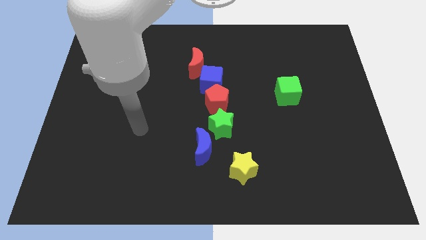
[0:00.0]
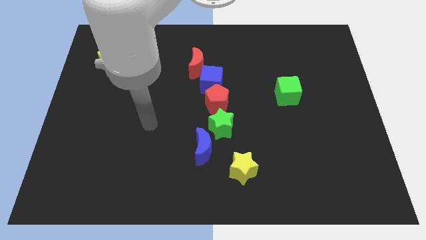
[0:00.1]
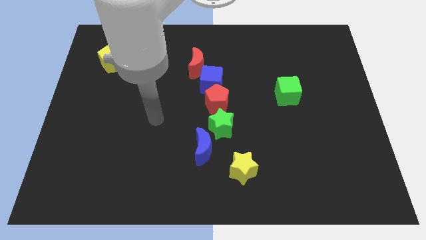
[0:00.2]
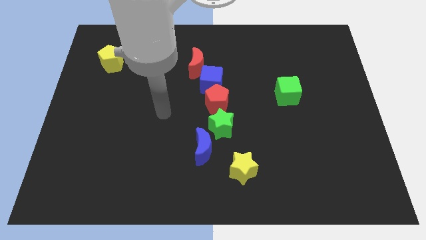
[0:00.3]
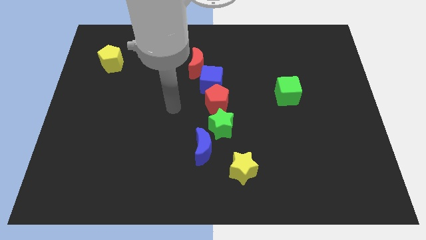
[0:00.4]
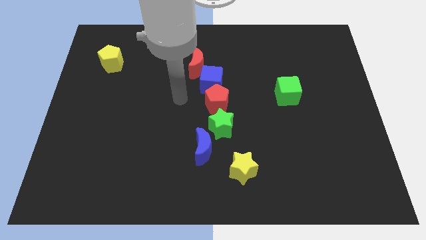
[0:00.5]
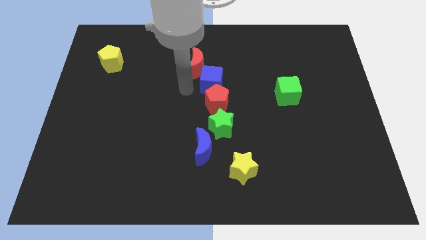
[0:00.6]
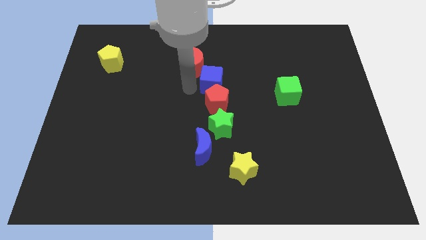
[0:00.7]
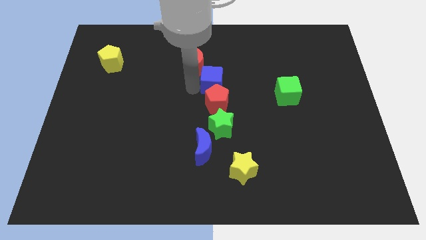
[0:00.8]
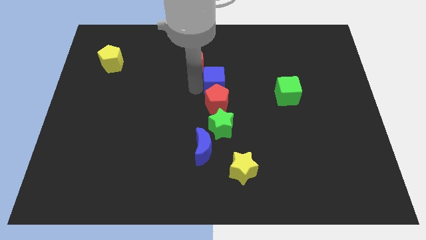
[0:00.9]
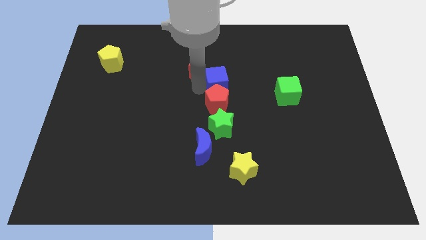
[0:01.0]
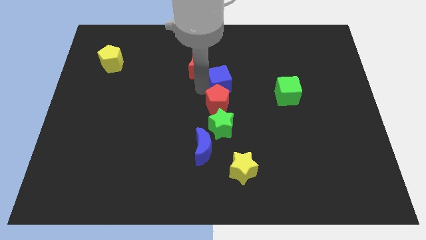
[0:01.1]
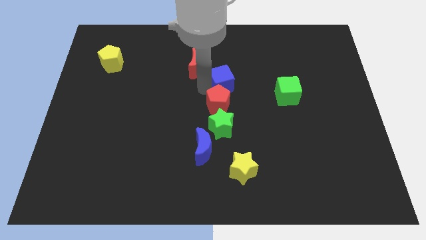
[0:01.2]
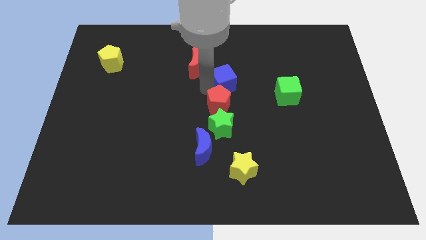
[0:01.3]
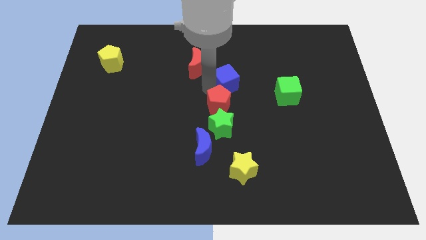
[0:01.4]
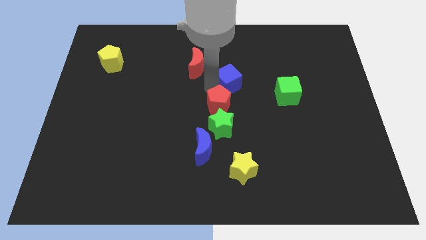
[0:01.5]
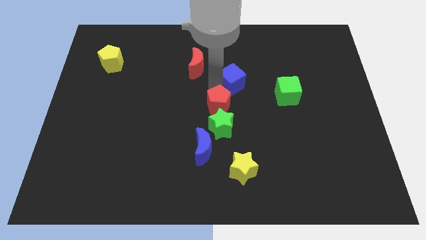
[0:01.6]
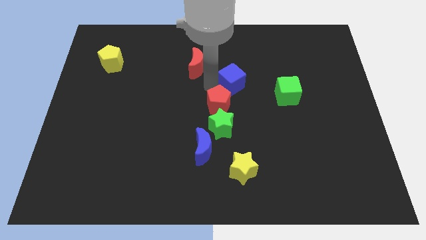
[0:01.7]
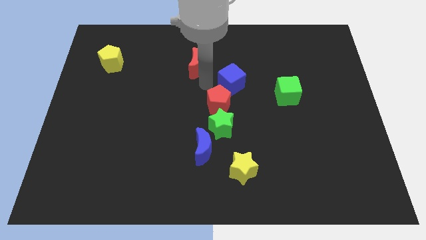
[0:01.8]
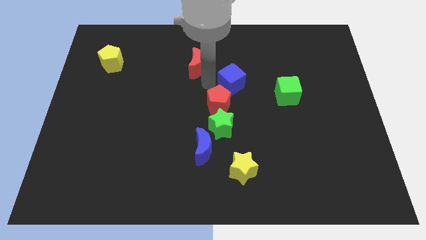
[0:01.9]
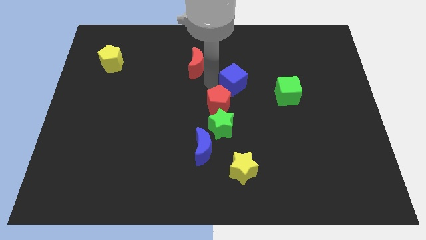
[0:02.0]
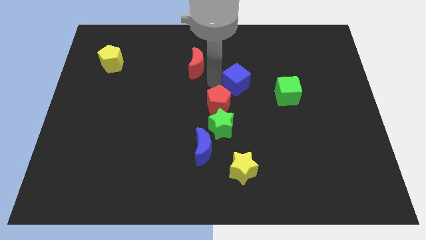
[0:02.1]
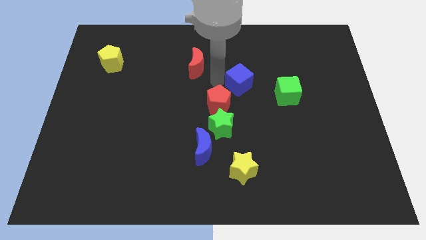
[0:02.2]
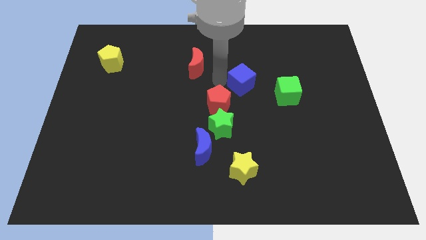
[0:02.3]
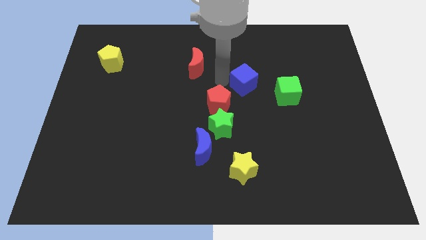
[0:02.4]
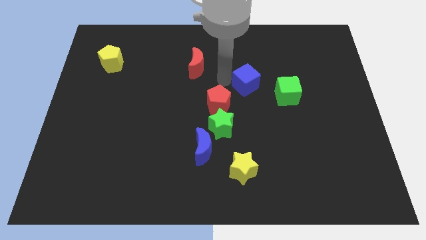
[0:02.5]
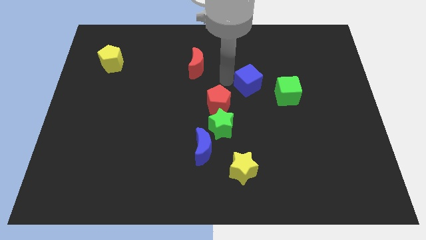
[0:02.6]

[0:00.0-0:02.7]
move the blue cube away from the red pentagon and red moon

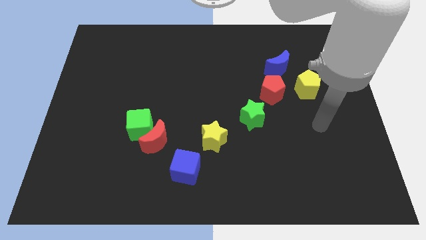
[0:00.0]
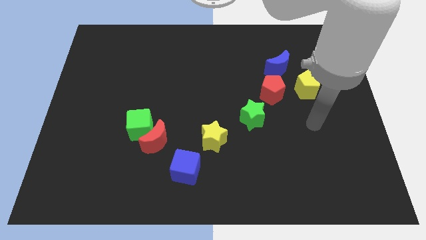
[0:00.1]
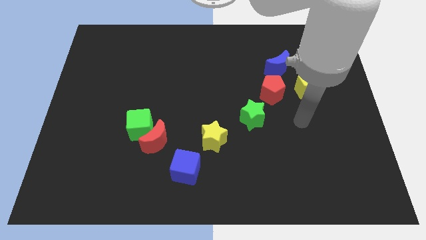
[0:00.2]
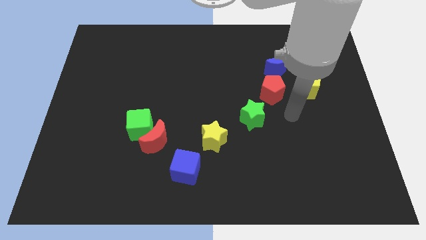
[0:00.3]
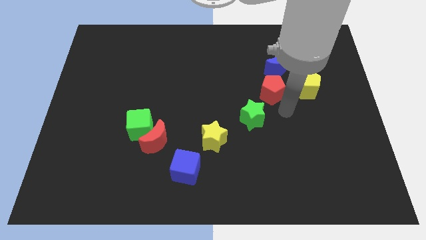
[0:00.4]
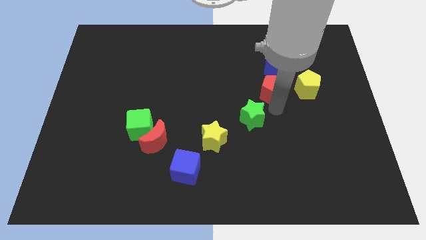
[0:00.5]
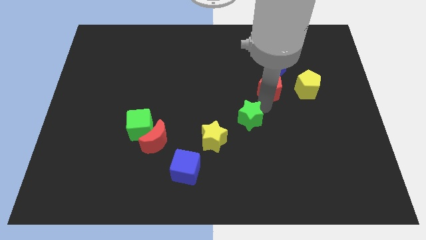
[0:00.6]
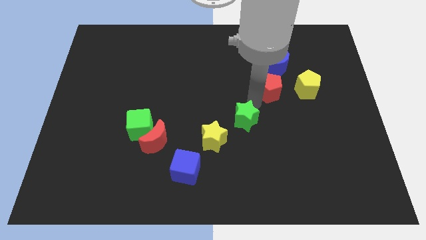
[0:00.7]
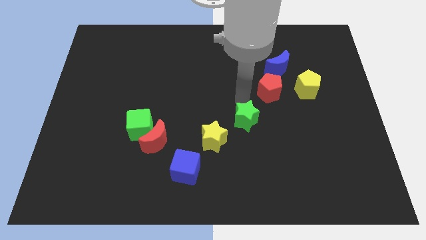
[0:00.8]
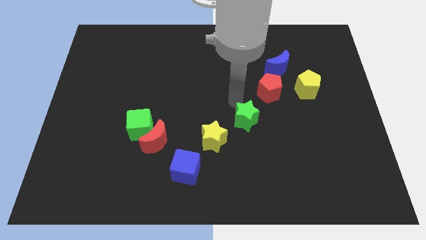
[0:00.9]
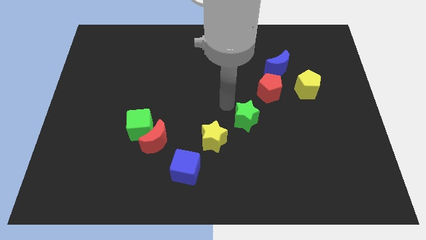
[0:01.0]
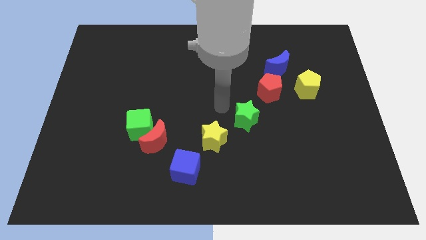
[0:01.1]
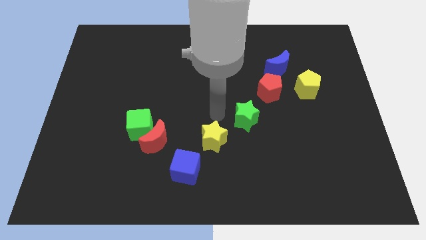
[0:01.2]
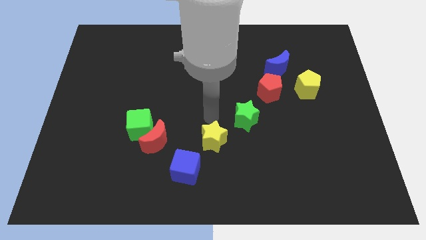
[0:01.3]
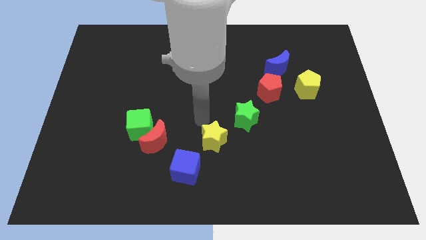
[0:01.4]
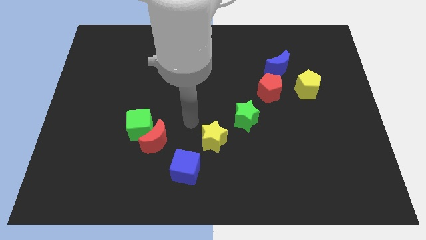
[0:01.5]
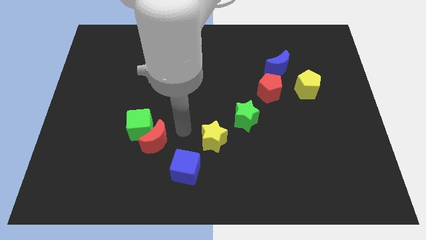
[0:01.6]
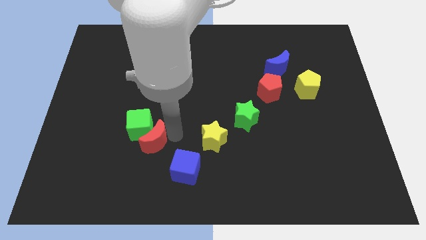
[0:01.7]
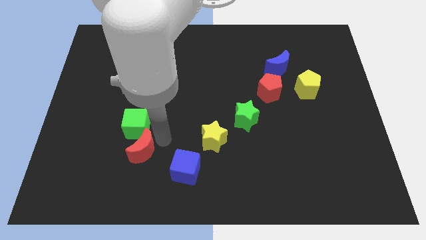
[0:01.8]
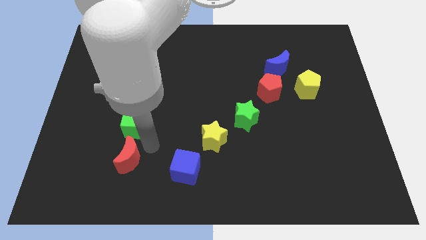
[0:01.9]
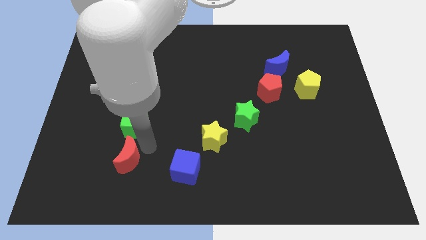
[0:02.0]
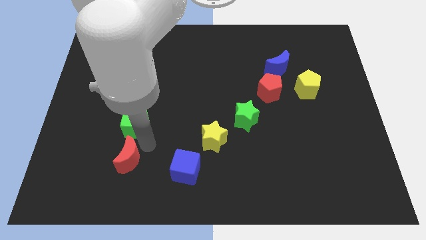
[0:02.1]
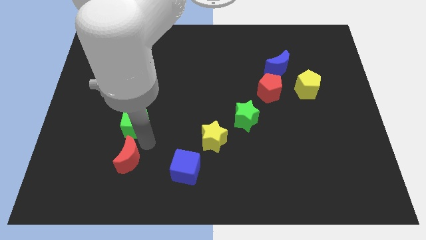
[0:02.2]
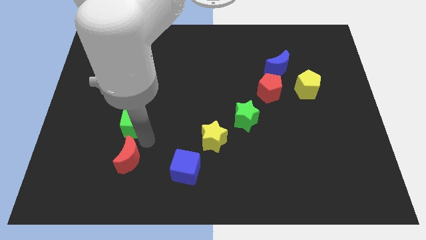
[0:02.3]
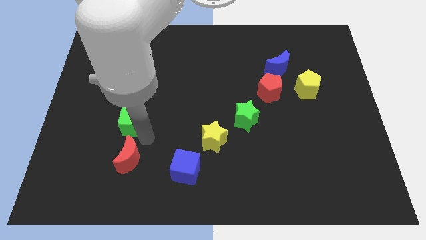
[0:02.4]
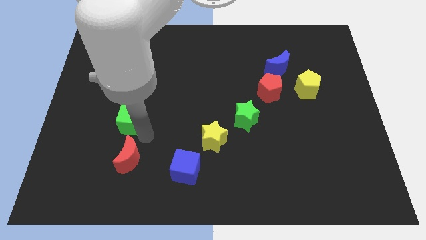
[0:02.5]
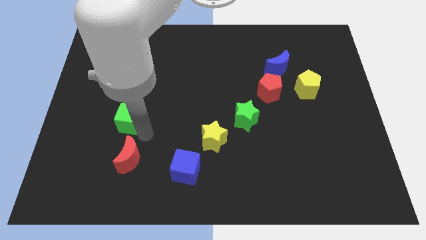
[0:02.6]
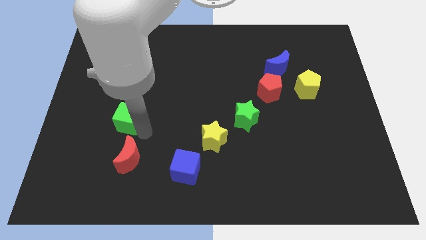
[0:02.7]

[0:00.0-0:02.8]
pull the green cube apart from the red moon

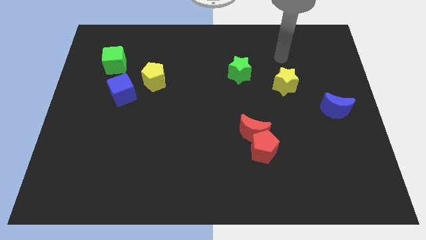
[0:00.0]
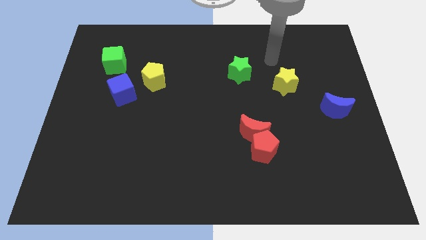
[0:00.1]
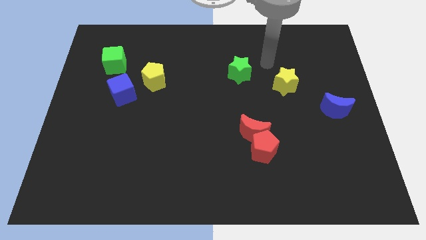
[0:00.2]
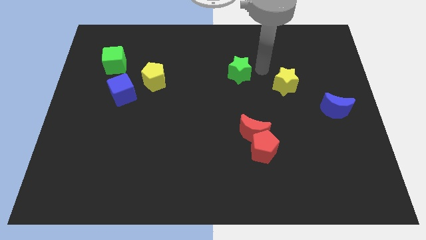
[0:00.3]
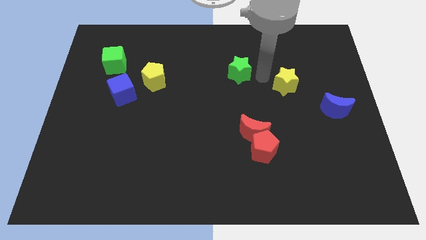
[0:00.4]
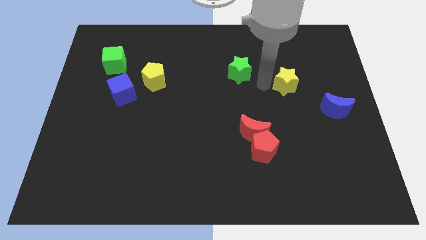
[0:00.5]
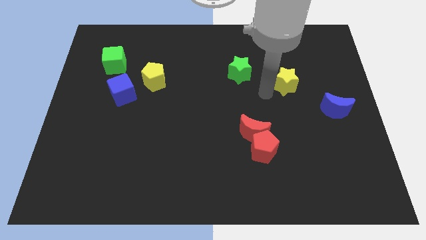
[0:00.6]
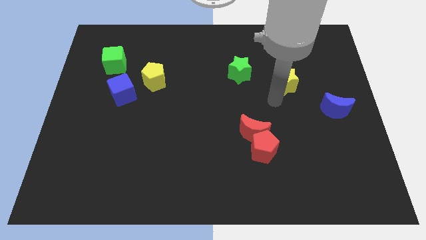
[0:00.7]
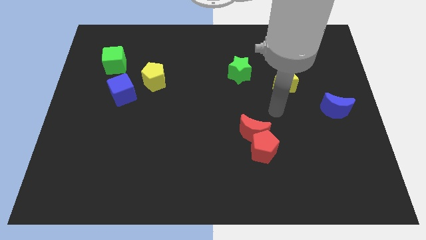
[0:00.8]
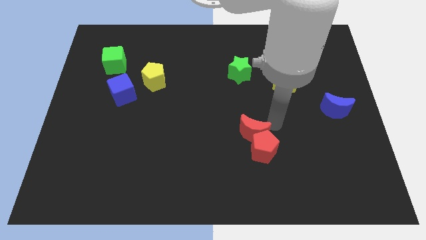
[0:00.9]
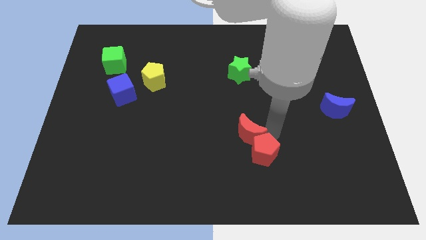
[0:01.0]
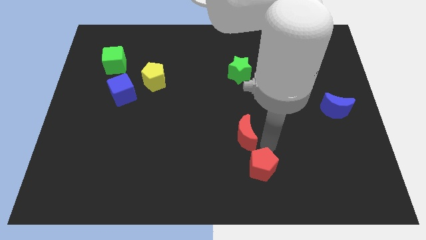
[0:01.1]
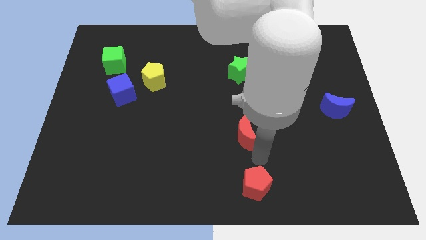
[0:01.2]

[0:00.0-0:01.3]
separate the red moon from the red pentagon

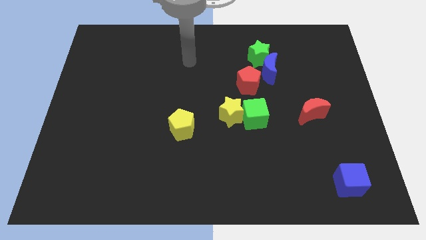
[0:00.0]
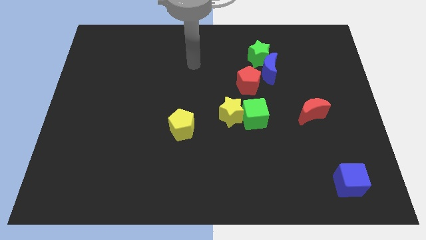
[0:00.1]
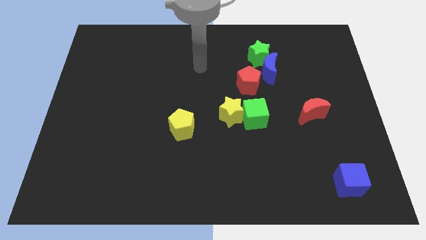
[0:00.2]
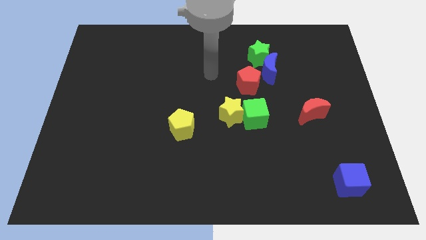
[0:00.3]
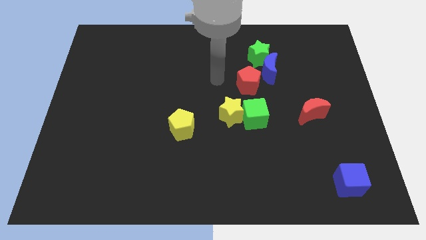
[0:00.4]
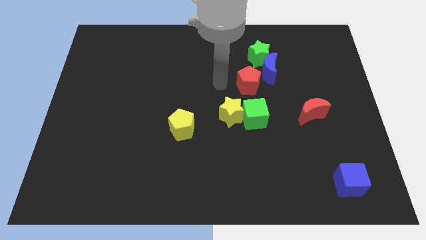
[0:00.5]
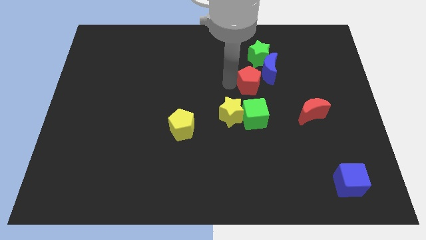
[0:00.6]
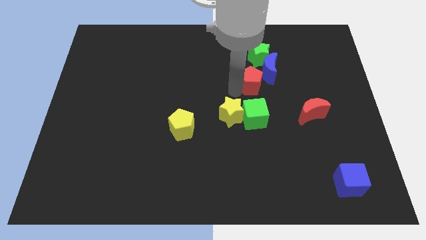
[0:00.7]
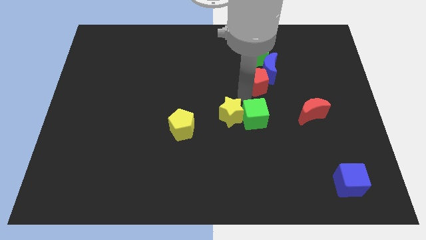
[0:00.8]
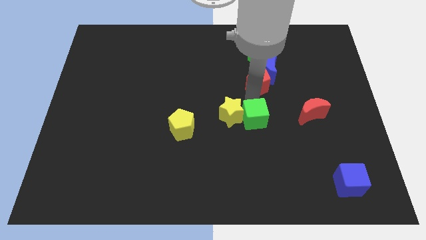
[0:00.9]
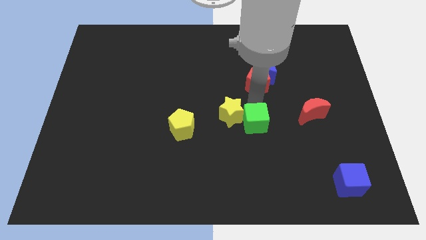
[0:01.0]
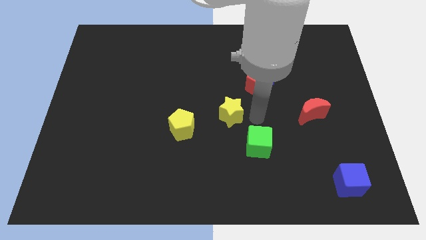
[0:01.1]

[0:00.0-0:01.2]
move the yellow star away from the green cube

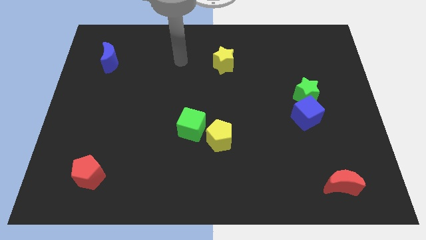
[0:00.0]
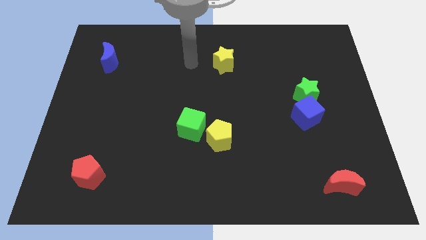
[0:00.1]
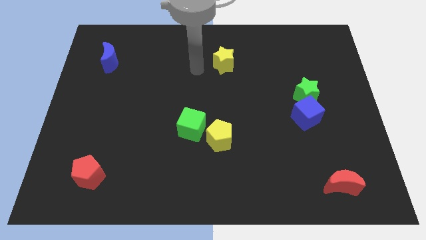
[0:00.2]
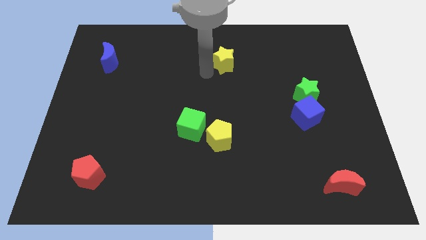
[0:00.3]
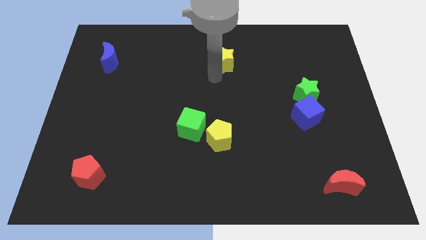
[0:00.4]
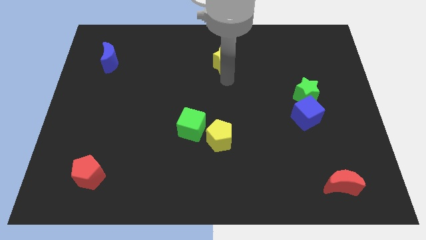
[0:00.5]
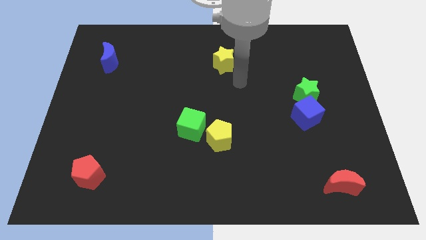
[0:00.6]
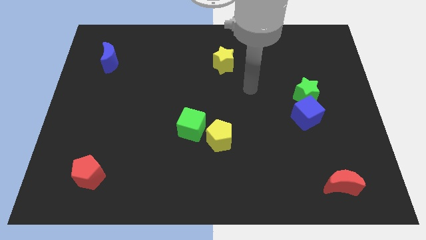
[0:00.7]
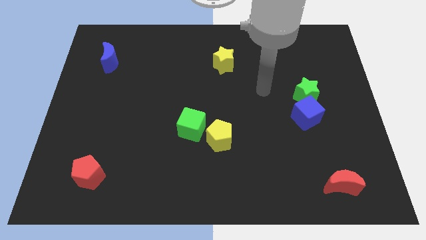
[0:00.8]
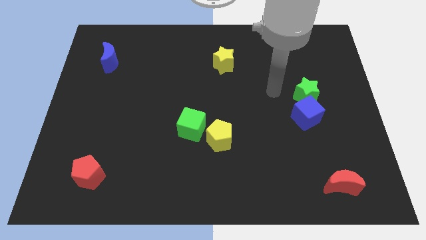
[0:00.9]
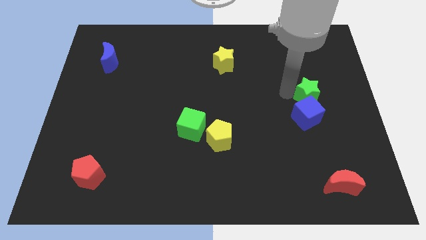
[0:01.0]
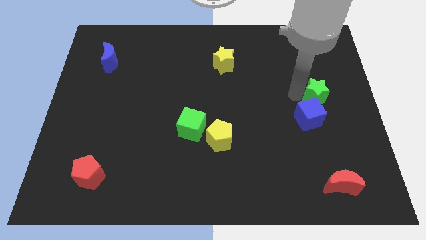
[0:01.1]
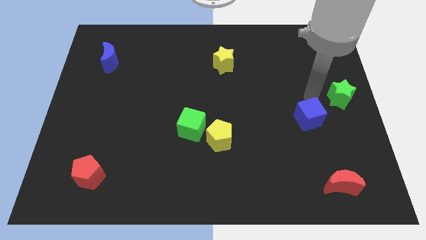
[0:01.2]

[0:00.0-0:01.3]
separate the blue cube from the green star
